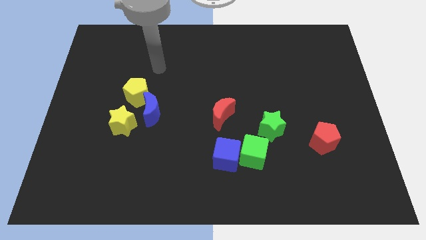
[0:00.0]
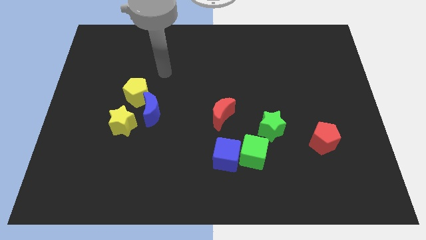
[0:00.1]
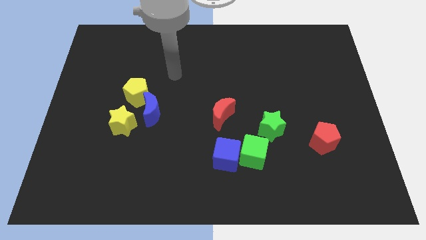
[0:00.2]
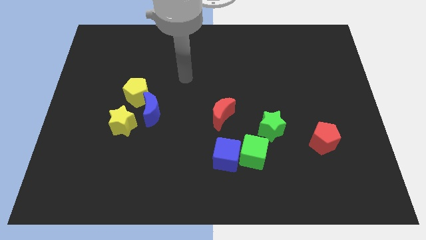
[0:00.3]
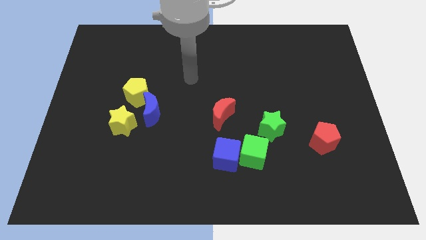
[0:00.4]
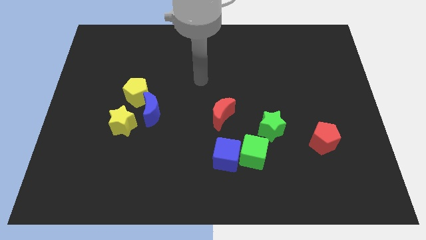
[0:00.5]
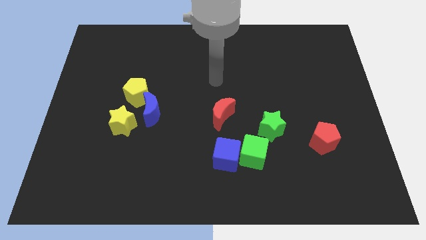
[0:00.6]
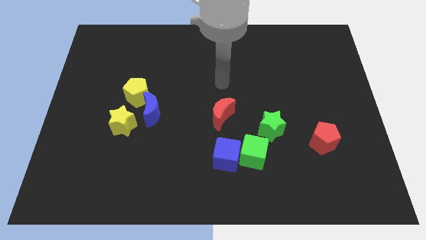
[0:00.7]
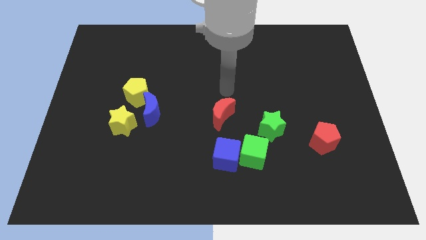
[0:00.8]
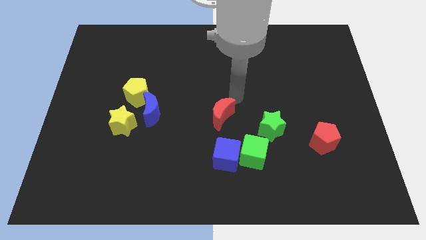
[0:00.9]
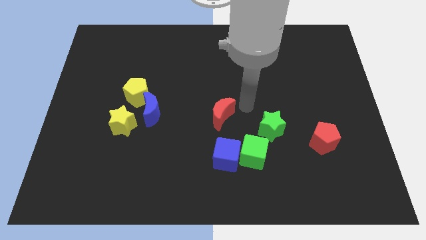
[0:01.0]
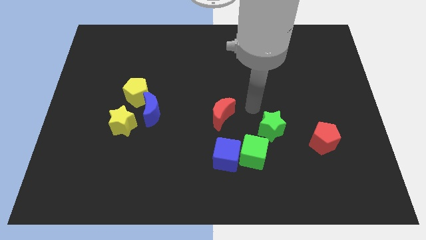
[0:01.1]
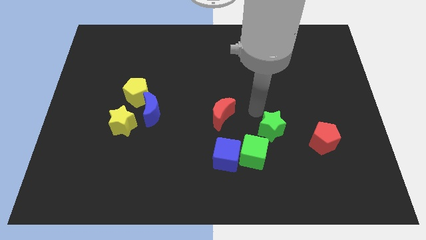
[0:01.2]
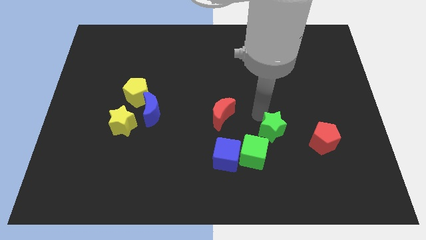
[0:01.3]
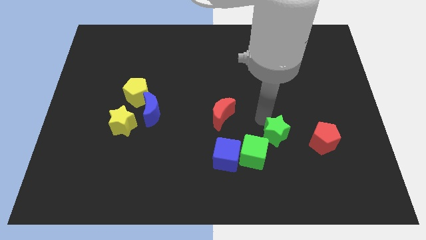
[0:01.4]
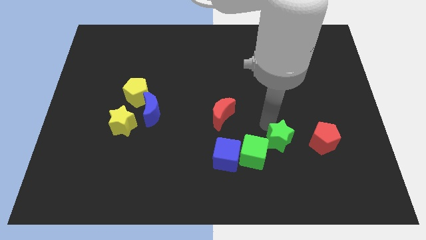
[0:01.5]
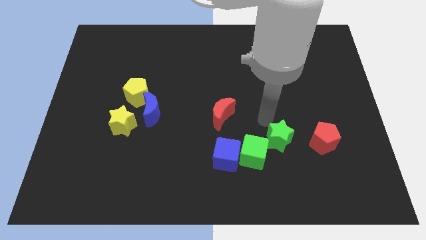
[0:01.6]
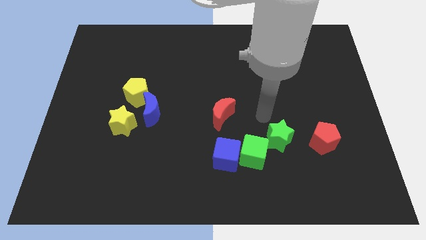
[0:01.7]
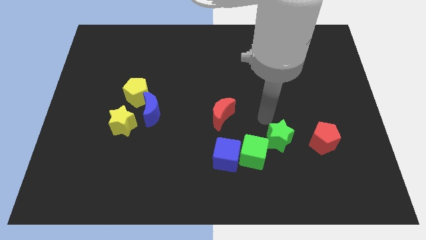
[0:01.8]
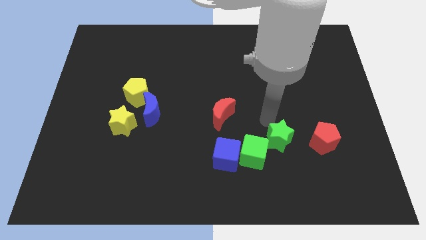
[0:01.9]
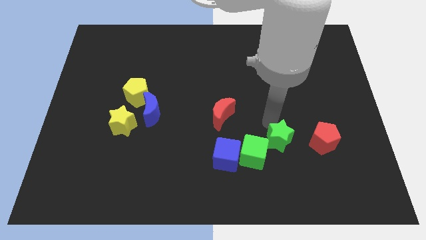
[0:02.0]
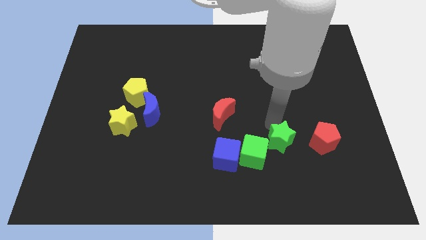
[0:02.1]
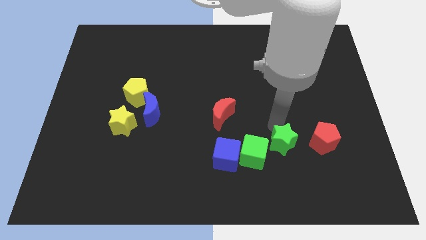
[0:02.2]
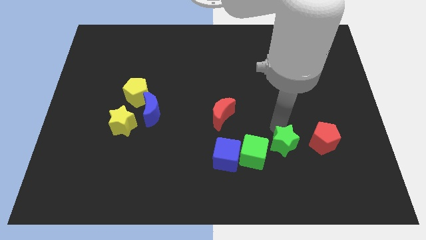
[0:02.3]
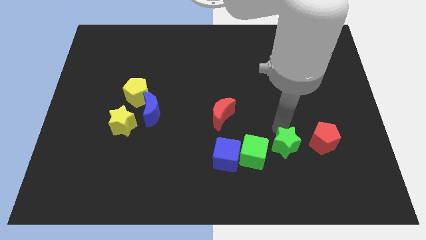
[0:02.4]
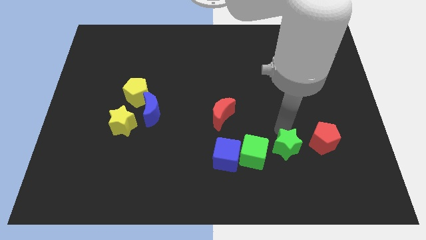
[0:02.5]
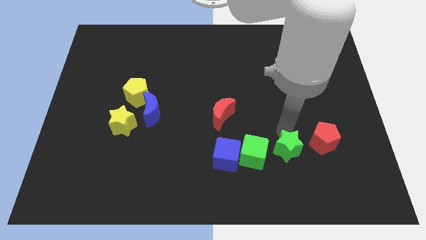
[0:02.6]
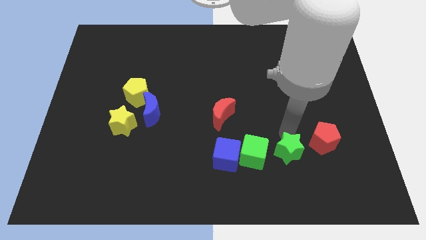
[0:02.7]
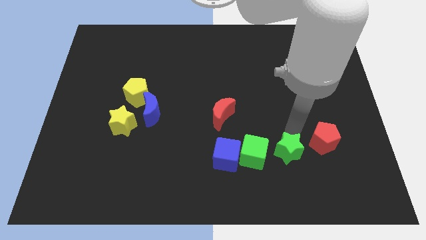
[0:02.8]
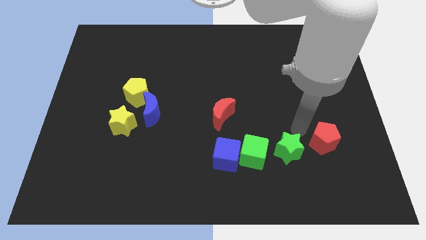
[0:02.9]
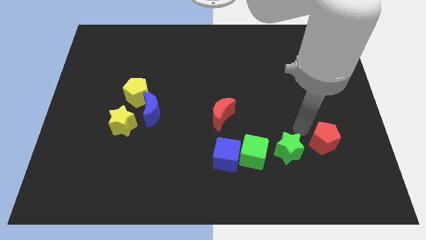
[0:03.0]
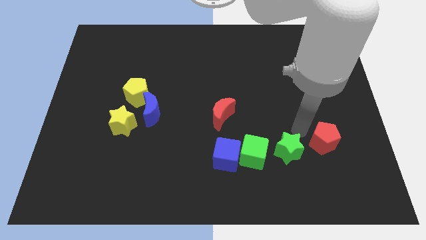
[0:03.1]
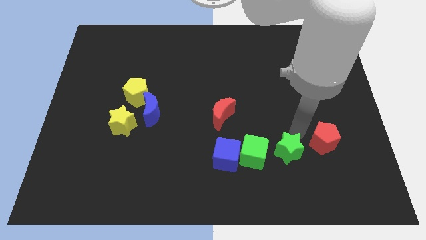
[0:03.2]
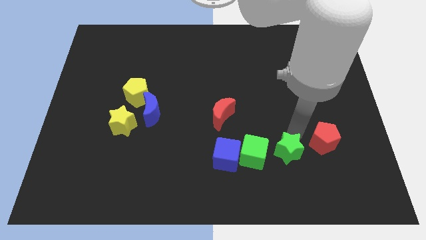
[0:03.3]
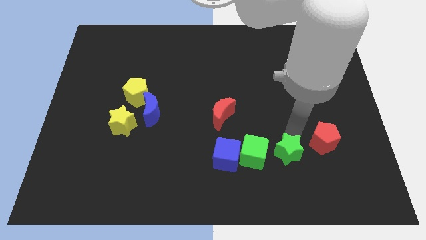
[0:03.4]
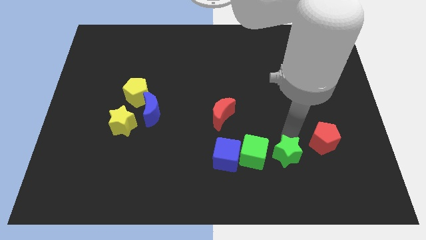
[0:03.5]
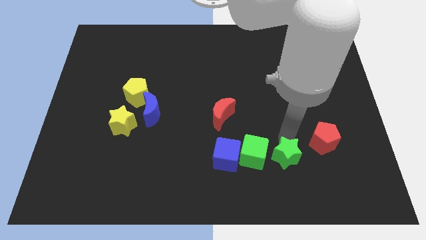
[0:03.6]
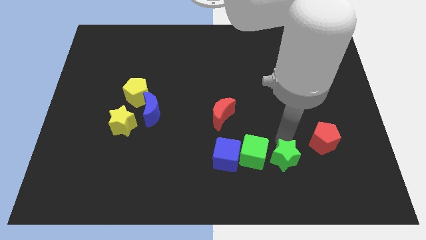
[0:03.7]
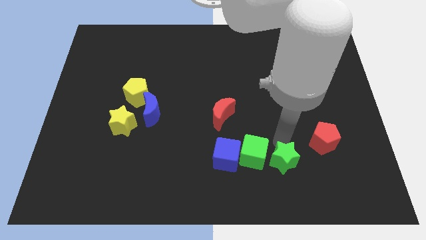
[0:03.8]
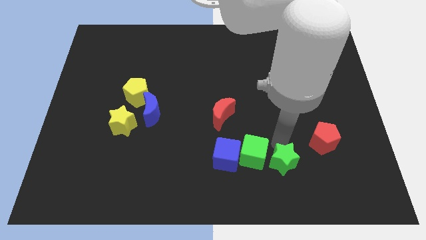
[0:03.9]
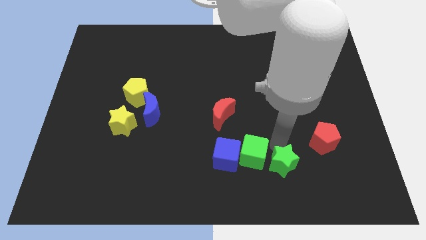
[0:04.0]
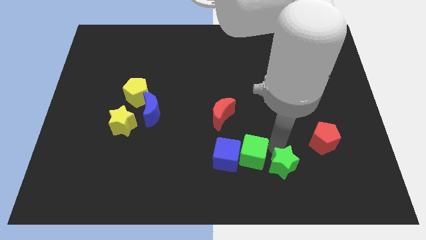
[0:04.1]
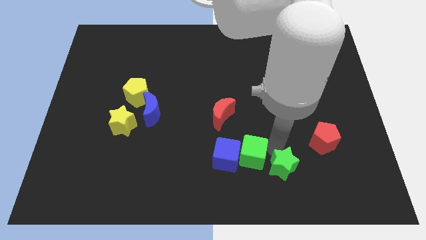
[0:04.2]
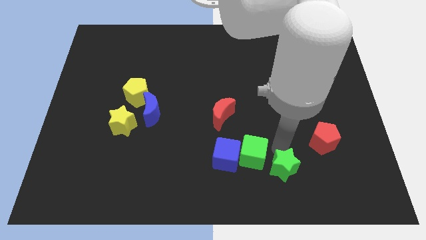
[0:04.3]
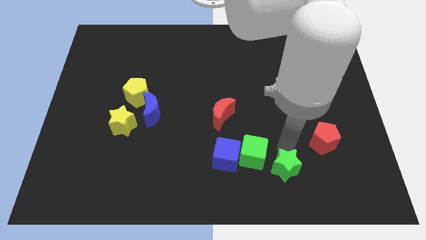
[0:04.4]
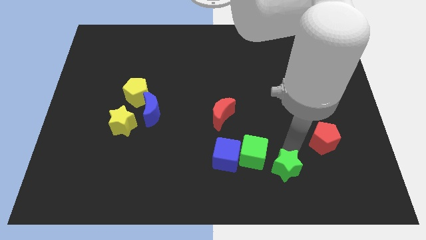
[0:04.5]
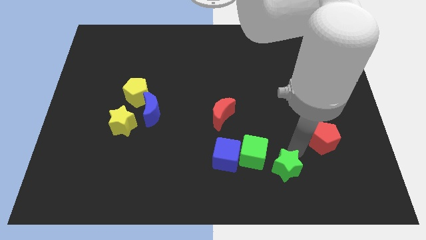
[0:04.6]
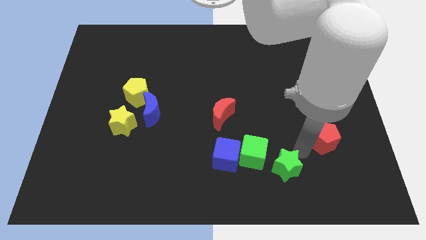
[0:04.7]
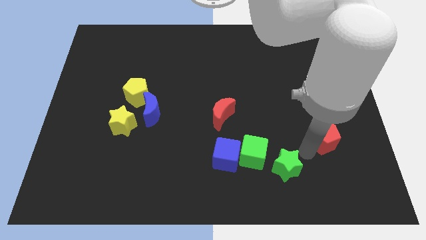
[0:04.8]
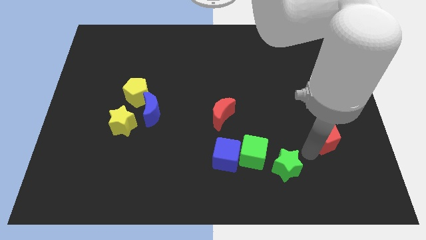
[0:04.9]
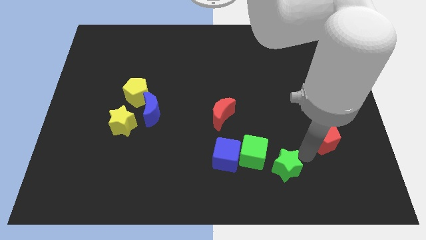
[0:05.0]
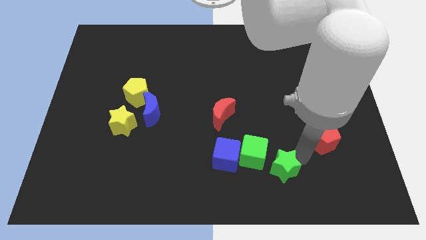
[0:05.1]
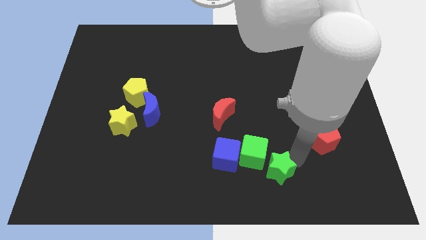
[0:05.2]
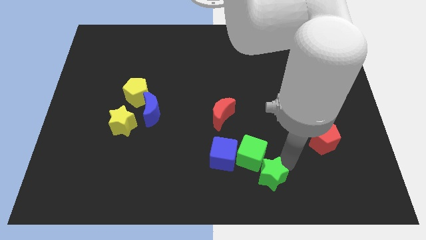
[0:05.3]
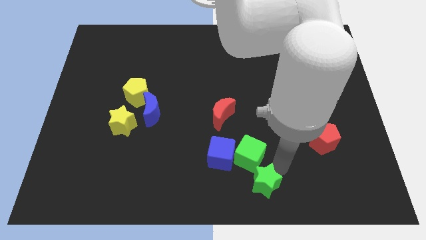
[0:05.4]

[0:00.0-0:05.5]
move the green star to the bottom
